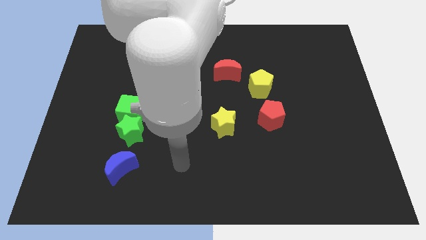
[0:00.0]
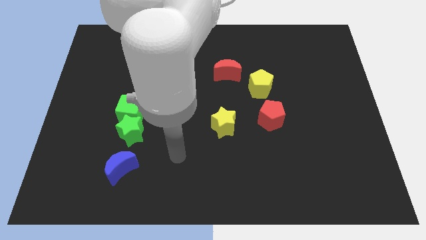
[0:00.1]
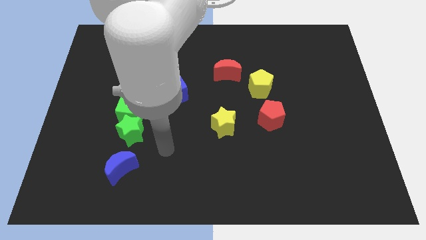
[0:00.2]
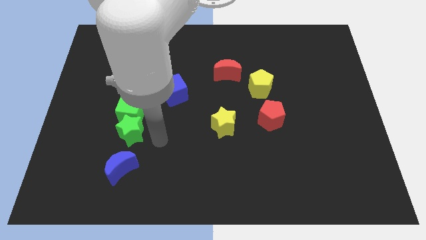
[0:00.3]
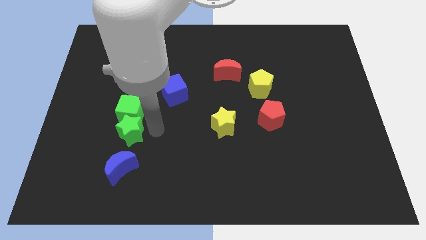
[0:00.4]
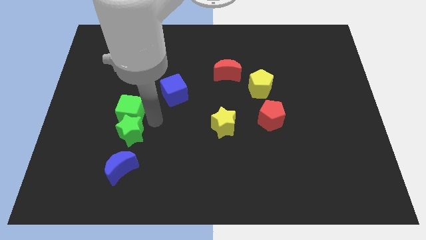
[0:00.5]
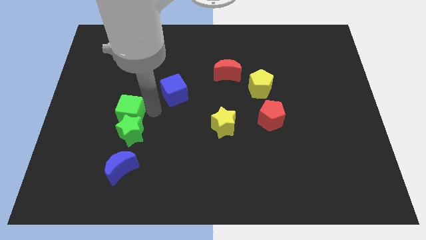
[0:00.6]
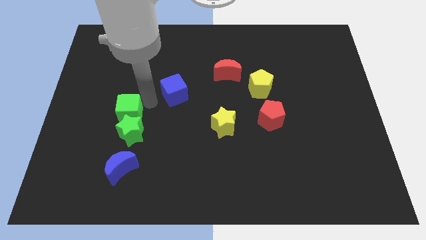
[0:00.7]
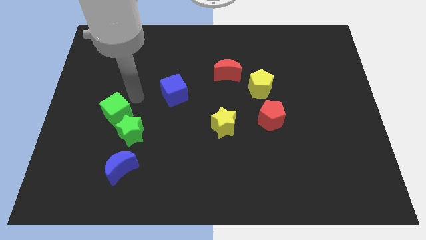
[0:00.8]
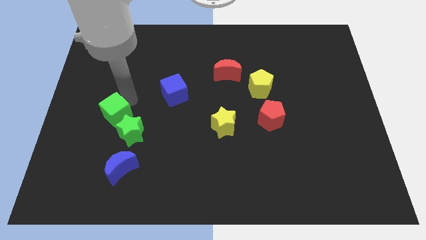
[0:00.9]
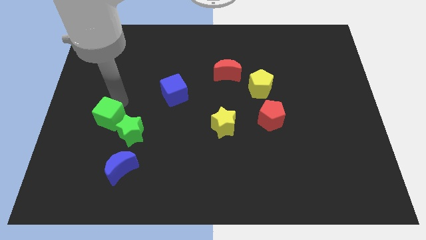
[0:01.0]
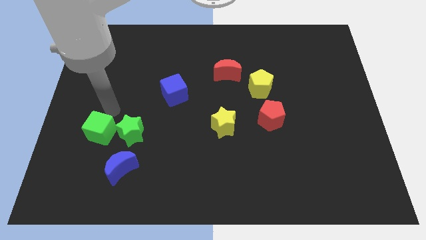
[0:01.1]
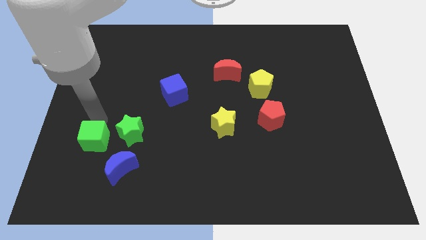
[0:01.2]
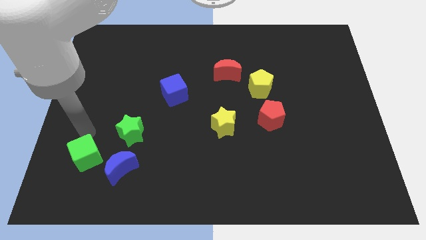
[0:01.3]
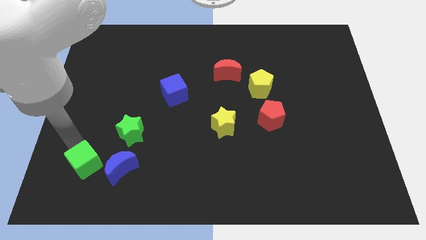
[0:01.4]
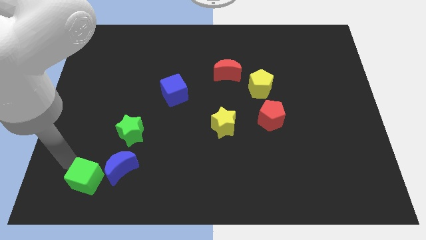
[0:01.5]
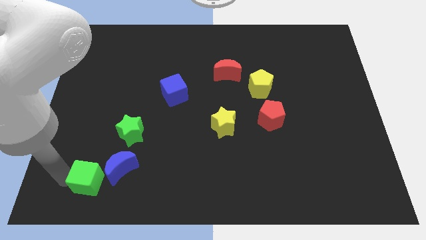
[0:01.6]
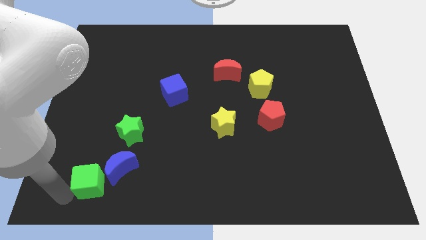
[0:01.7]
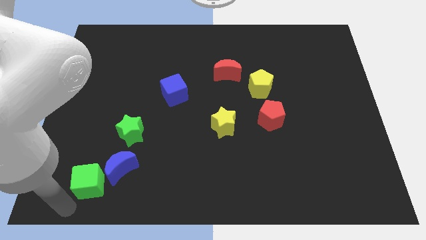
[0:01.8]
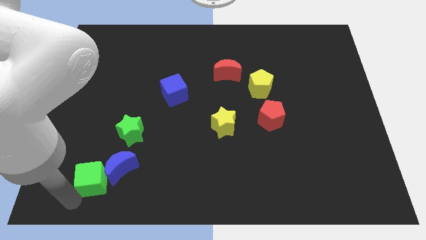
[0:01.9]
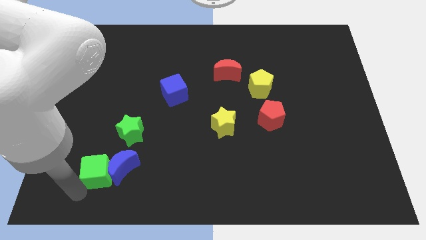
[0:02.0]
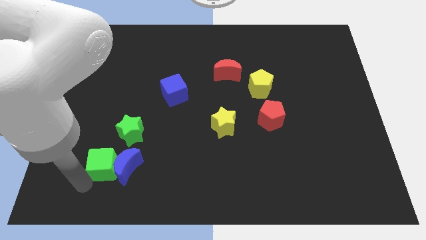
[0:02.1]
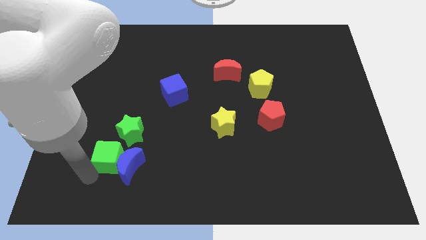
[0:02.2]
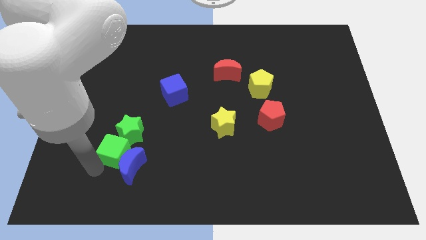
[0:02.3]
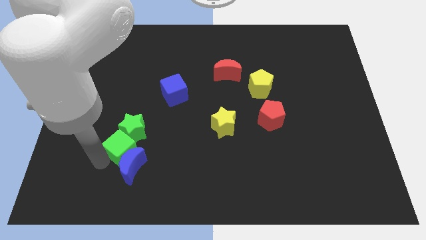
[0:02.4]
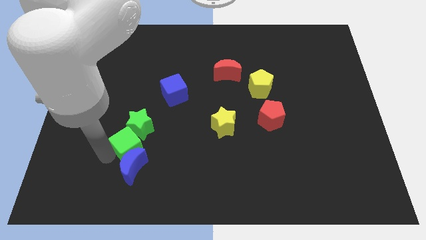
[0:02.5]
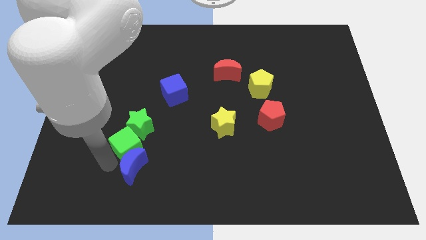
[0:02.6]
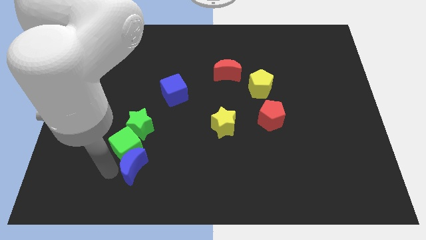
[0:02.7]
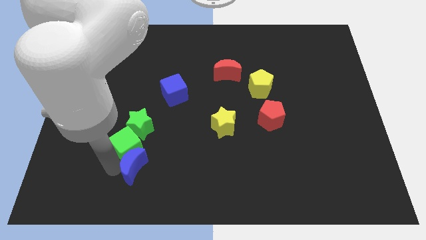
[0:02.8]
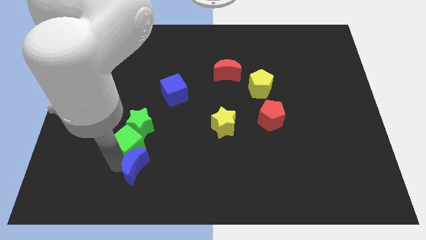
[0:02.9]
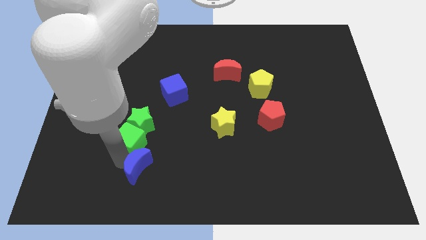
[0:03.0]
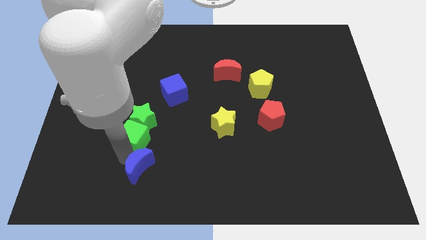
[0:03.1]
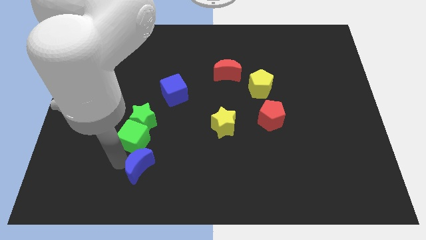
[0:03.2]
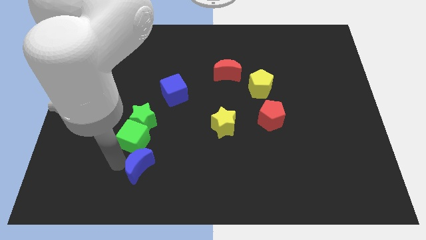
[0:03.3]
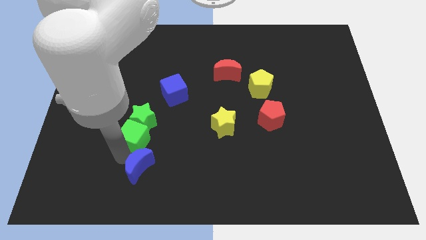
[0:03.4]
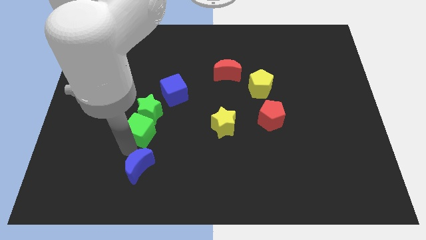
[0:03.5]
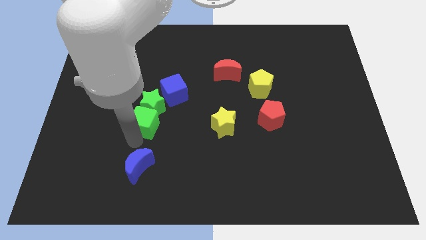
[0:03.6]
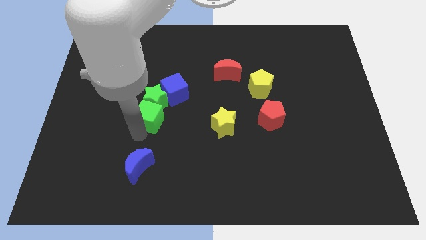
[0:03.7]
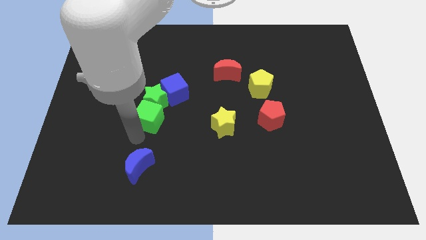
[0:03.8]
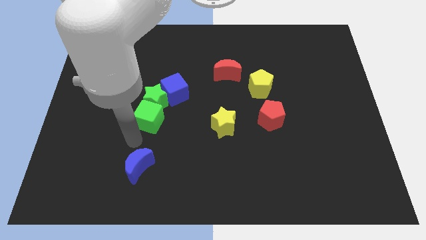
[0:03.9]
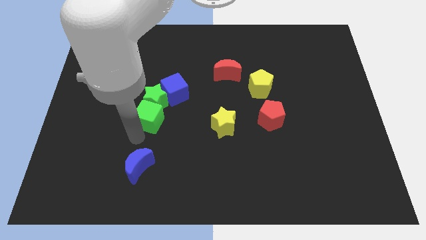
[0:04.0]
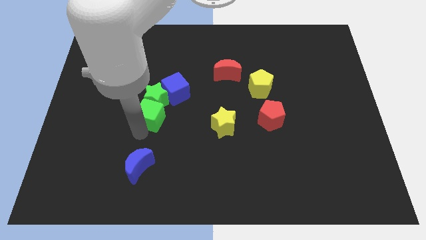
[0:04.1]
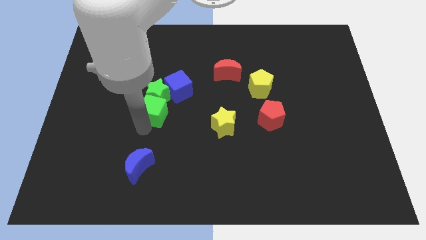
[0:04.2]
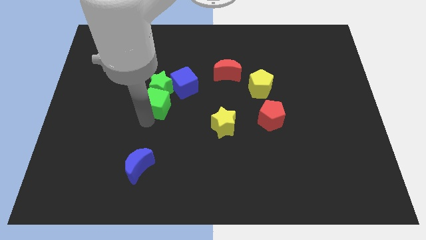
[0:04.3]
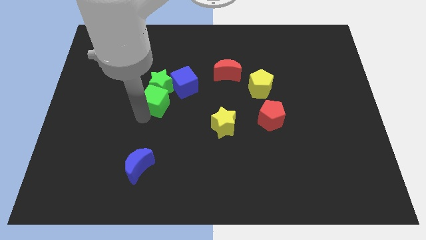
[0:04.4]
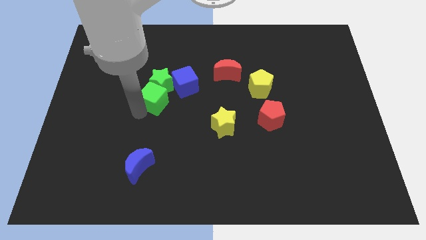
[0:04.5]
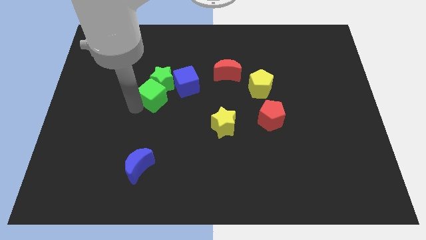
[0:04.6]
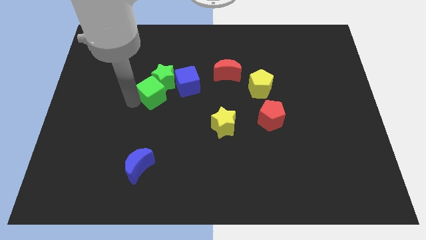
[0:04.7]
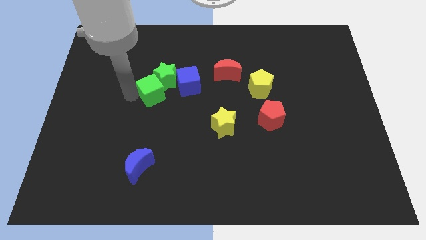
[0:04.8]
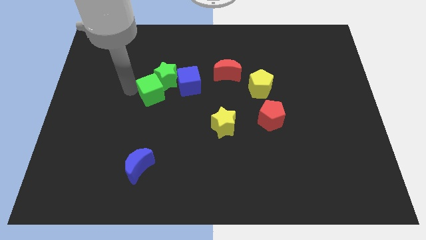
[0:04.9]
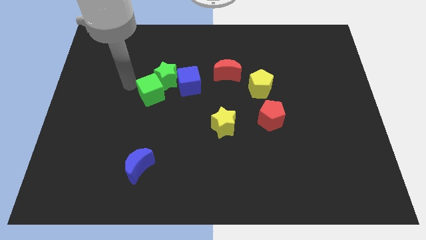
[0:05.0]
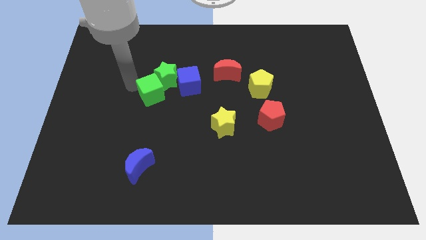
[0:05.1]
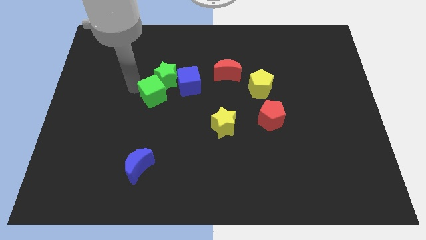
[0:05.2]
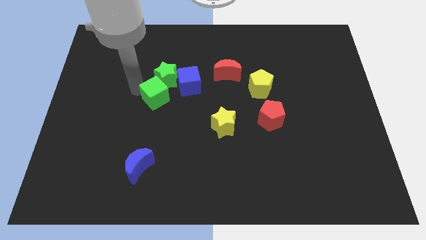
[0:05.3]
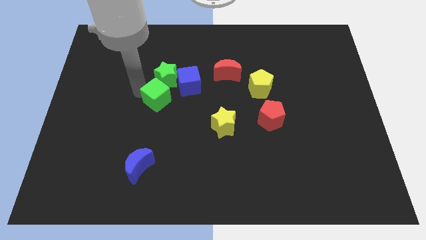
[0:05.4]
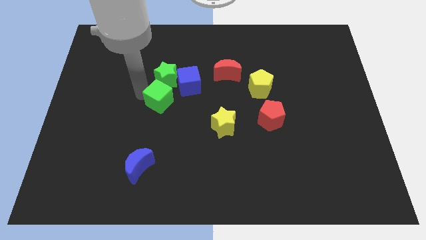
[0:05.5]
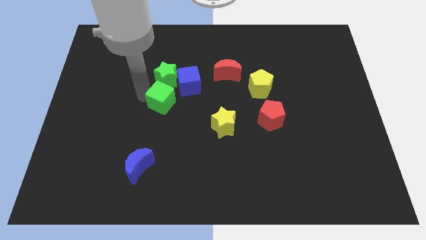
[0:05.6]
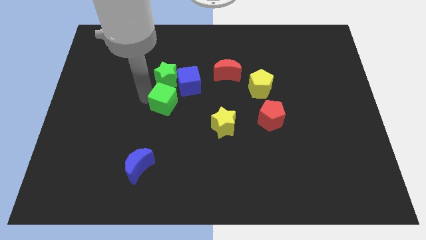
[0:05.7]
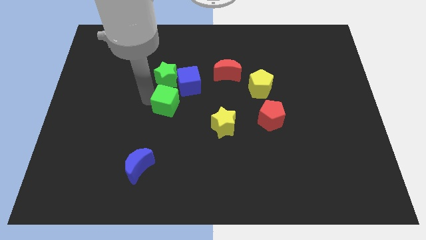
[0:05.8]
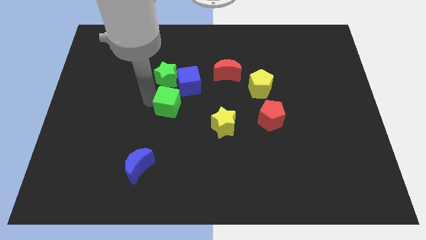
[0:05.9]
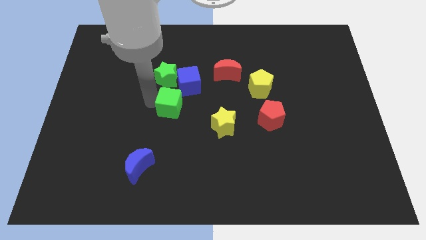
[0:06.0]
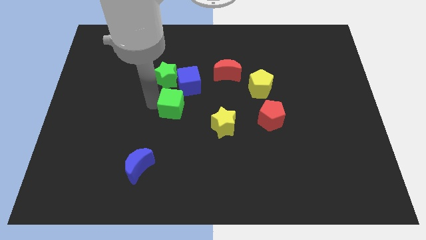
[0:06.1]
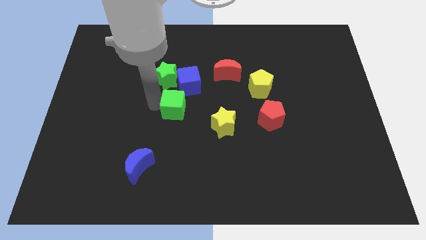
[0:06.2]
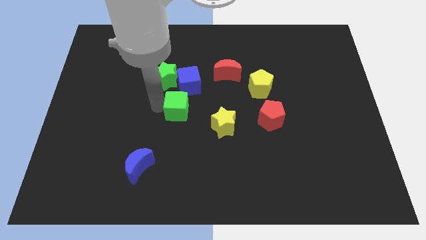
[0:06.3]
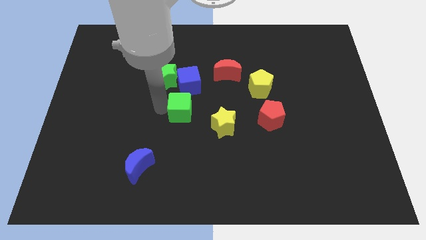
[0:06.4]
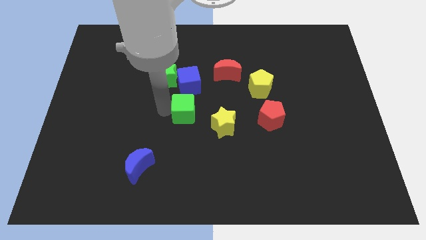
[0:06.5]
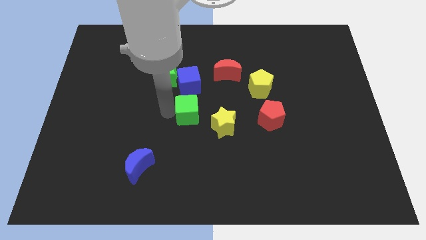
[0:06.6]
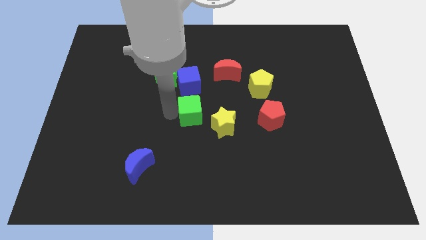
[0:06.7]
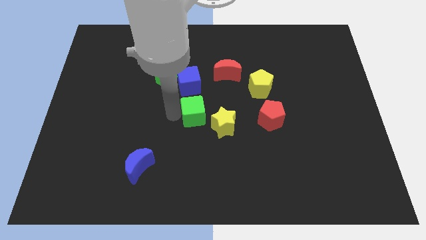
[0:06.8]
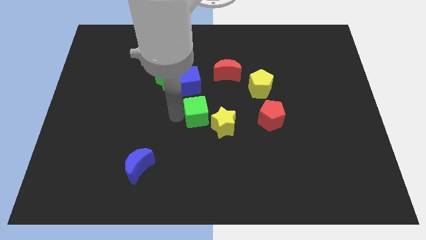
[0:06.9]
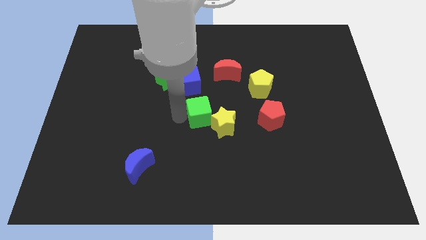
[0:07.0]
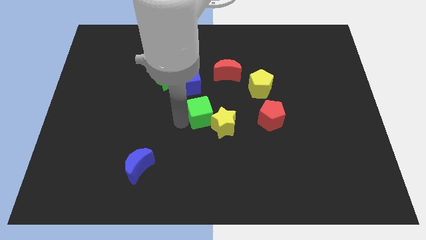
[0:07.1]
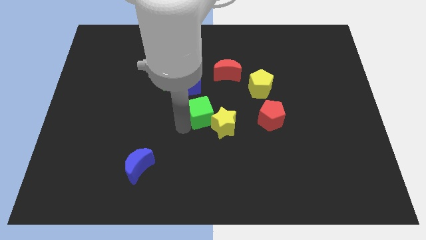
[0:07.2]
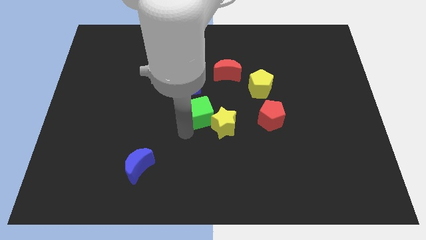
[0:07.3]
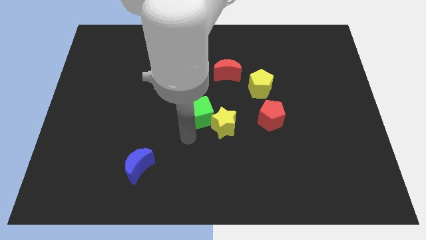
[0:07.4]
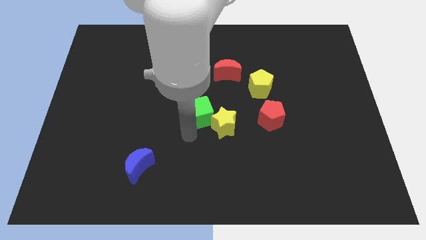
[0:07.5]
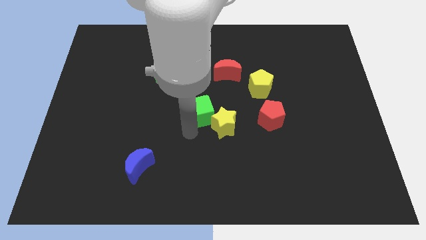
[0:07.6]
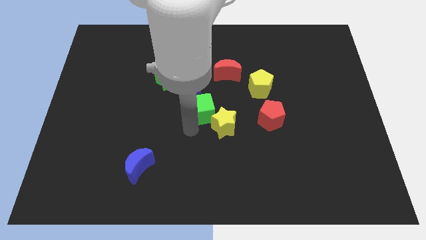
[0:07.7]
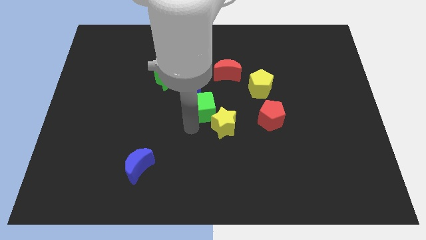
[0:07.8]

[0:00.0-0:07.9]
push the green cube to the top side of the yellow star

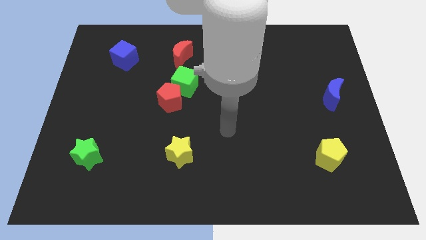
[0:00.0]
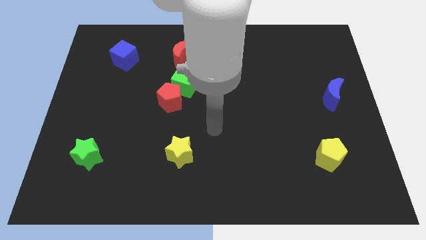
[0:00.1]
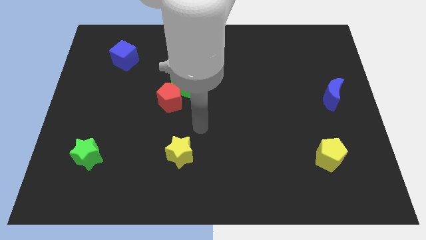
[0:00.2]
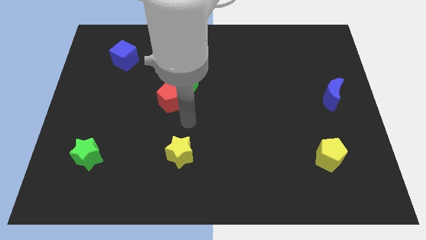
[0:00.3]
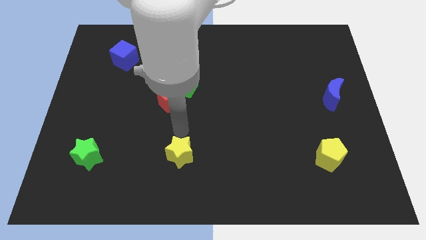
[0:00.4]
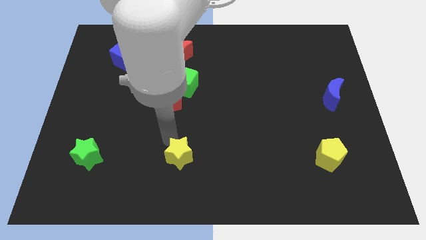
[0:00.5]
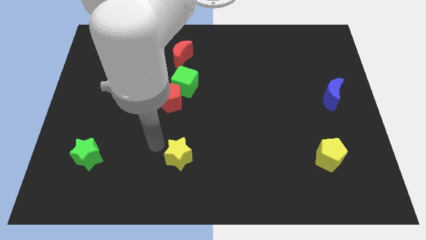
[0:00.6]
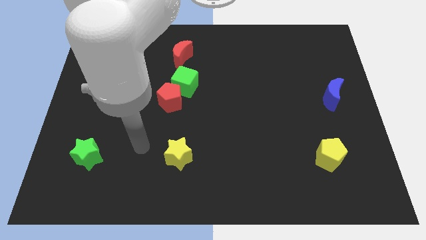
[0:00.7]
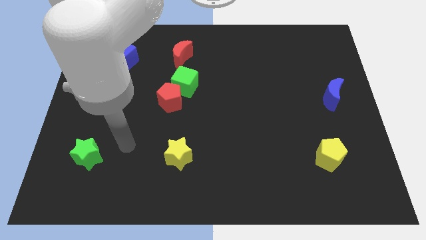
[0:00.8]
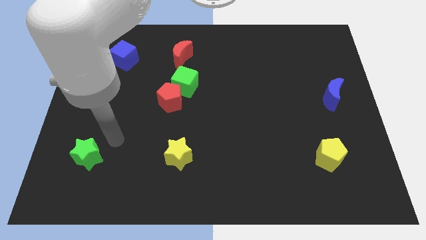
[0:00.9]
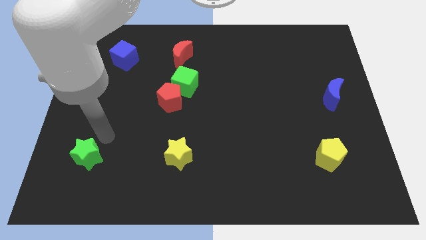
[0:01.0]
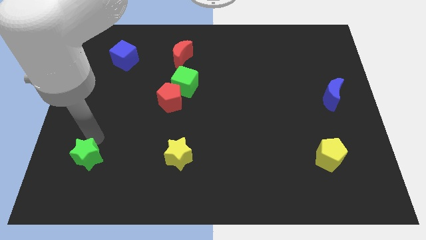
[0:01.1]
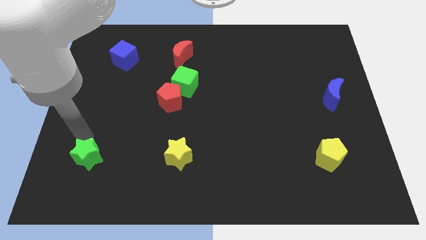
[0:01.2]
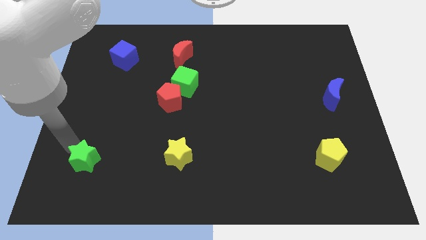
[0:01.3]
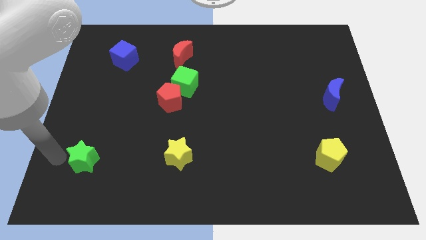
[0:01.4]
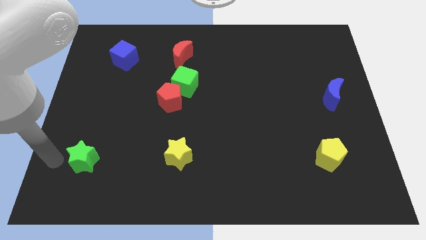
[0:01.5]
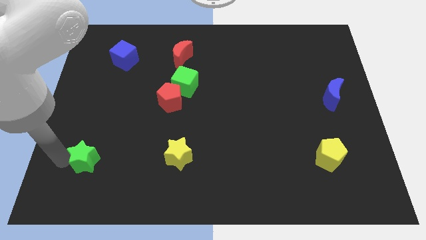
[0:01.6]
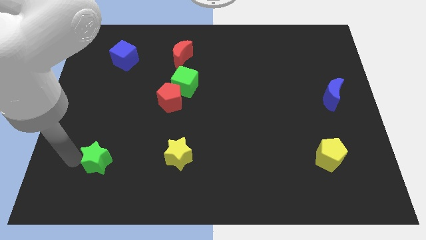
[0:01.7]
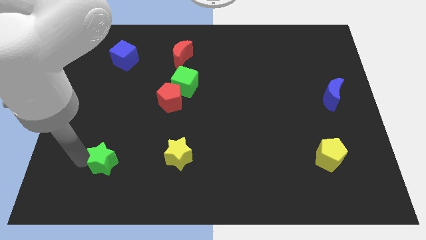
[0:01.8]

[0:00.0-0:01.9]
push the green star to the left side of the yellow star
